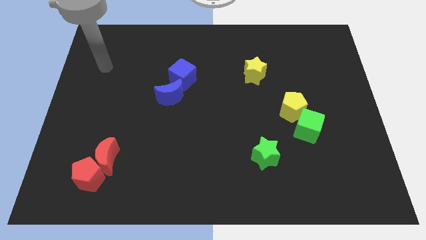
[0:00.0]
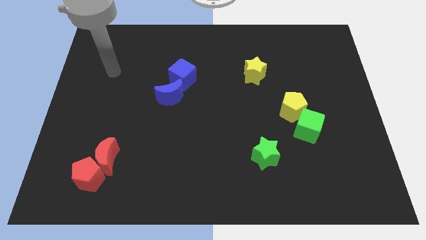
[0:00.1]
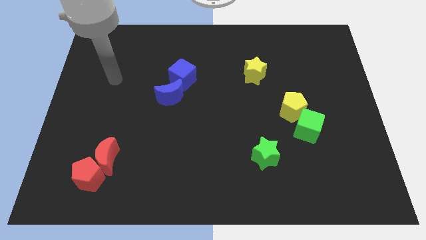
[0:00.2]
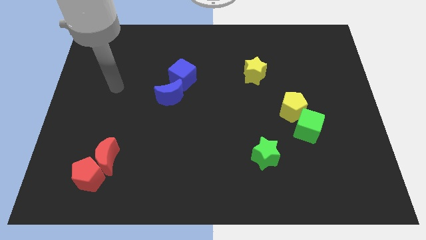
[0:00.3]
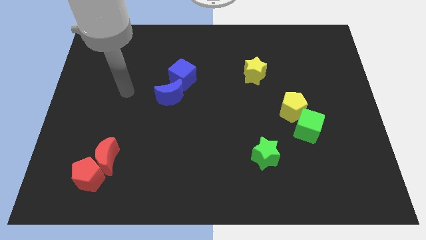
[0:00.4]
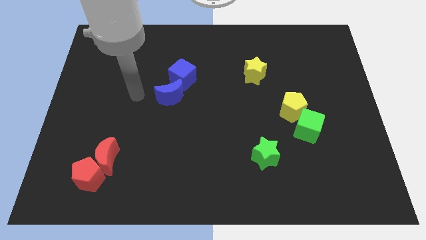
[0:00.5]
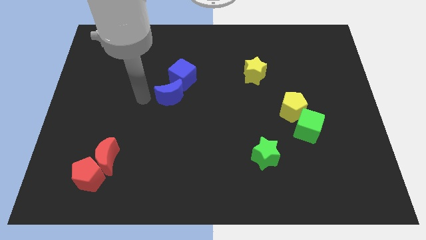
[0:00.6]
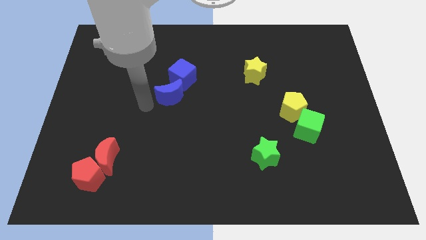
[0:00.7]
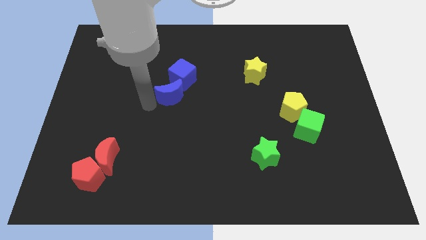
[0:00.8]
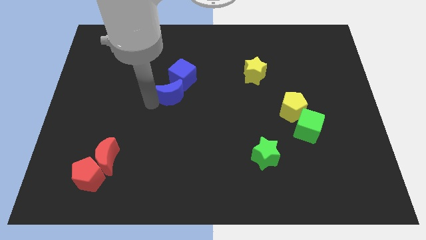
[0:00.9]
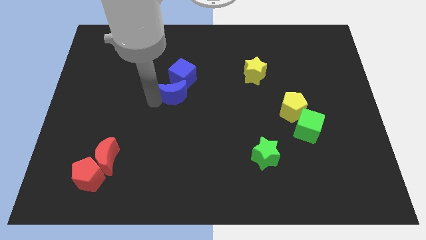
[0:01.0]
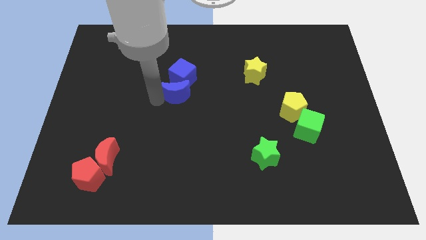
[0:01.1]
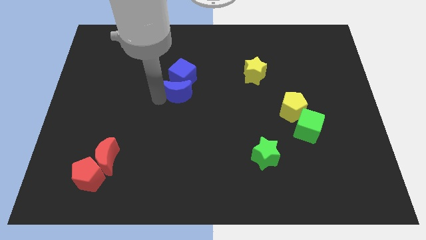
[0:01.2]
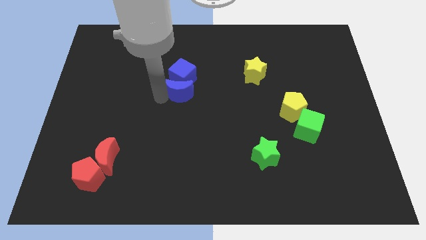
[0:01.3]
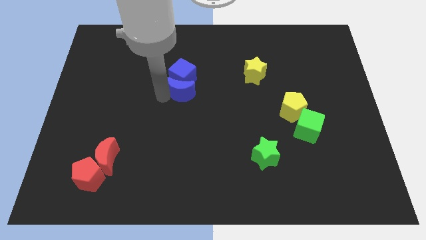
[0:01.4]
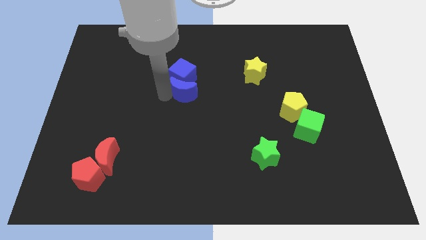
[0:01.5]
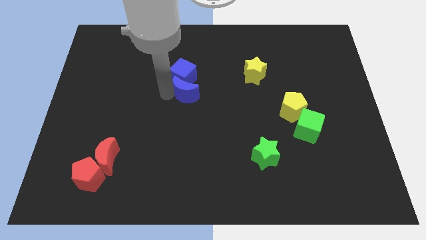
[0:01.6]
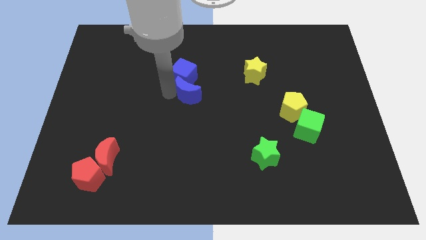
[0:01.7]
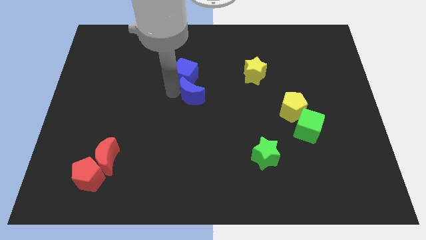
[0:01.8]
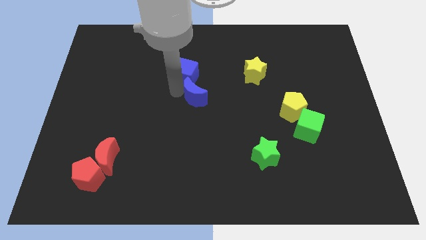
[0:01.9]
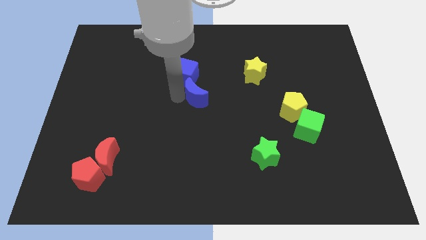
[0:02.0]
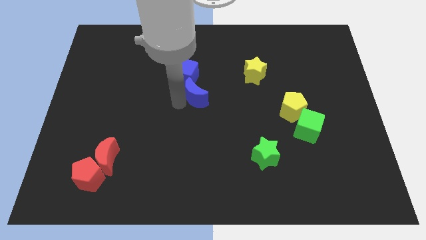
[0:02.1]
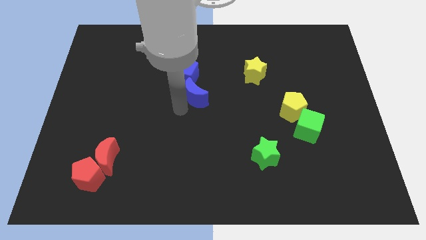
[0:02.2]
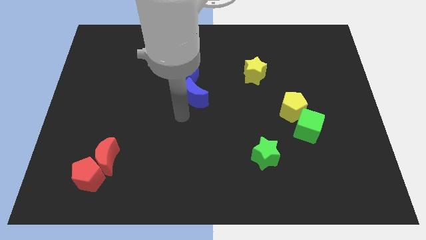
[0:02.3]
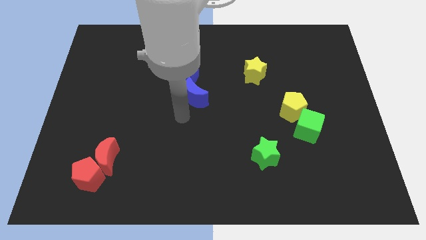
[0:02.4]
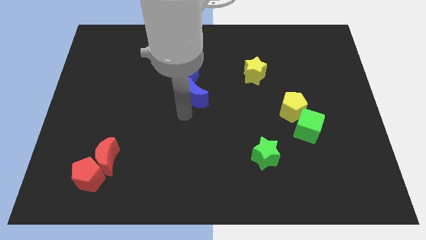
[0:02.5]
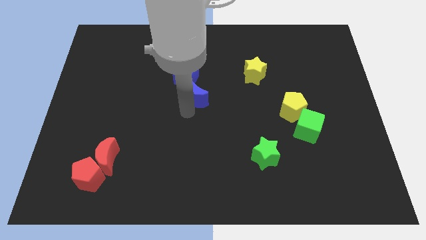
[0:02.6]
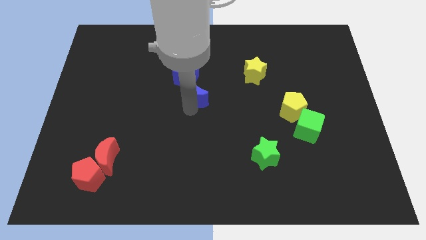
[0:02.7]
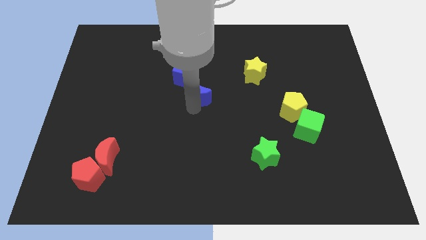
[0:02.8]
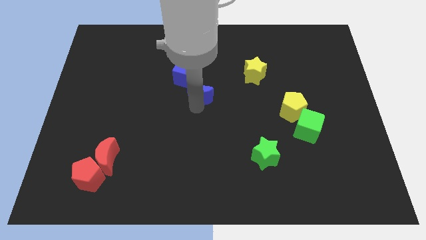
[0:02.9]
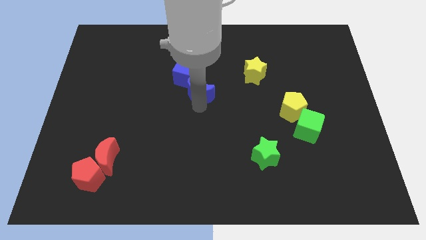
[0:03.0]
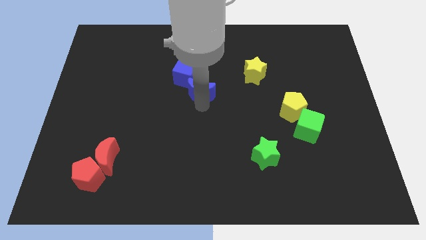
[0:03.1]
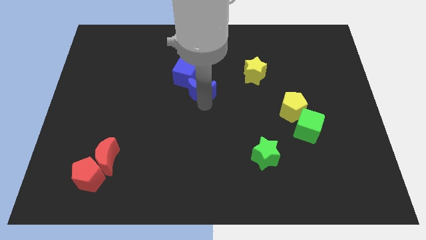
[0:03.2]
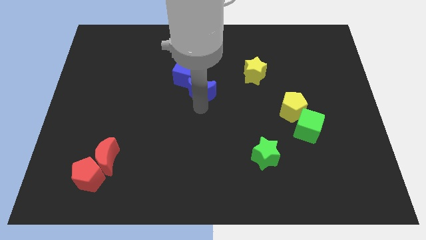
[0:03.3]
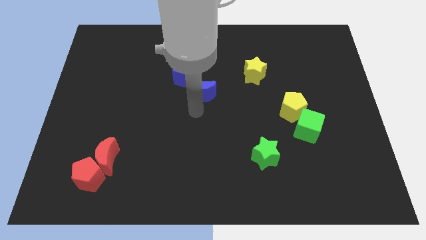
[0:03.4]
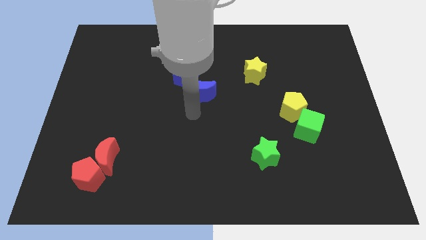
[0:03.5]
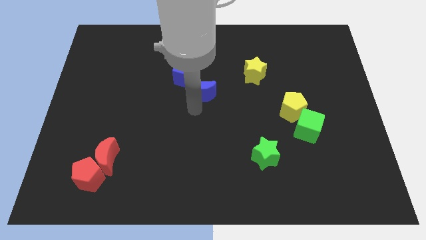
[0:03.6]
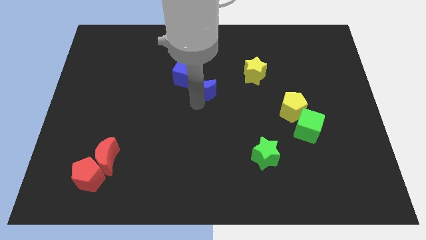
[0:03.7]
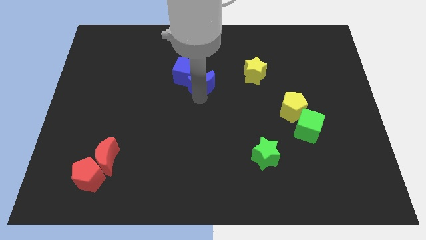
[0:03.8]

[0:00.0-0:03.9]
slightly move the blue moon upwards and to the right

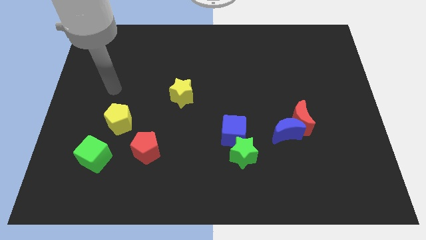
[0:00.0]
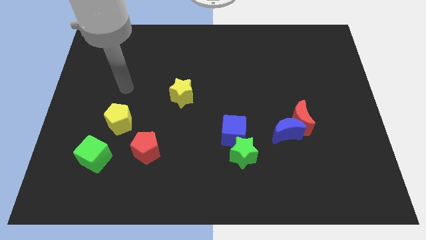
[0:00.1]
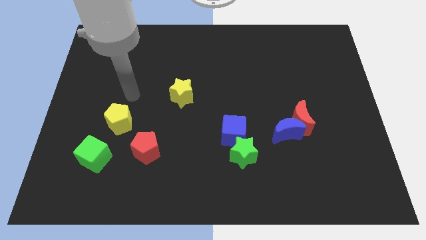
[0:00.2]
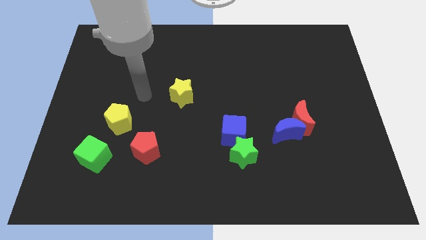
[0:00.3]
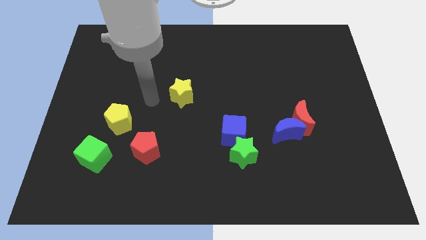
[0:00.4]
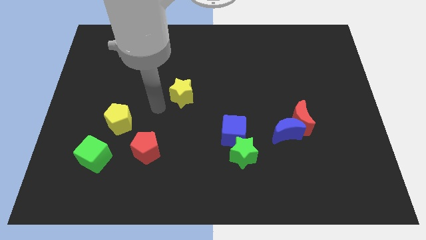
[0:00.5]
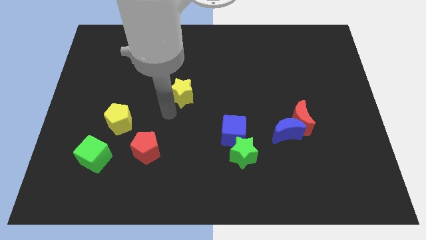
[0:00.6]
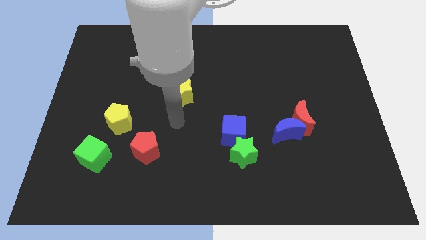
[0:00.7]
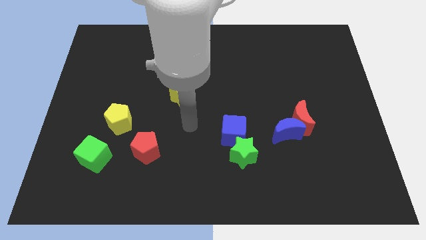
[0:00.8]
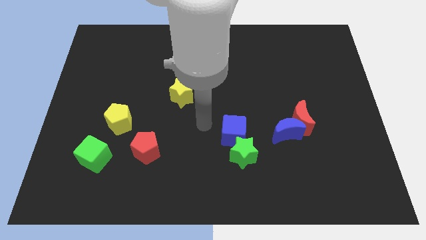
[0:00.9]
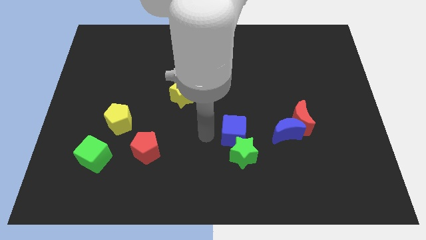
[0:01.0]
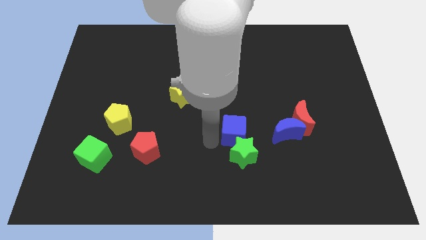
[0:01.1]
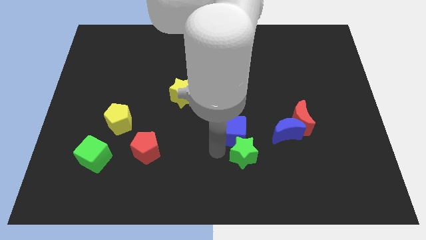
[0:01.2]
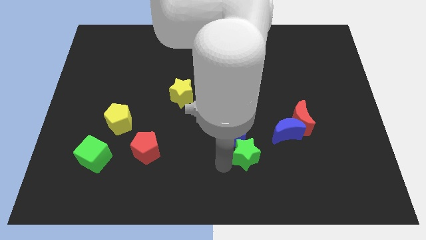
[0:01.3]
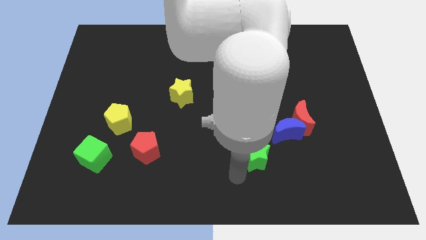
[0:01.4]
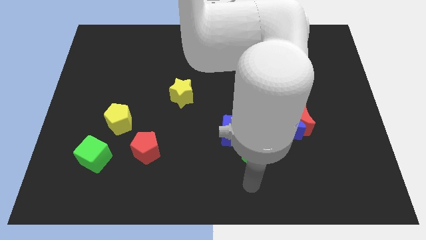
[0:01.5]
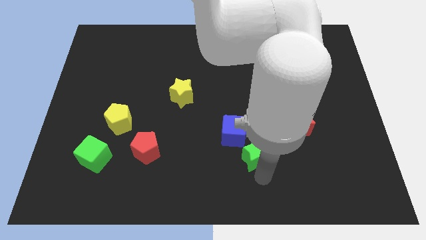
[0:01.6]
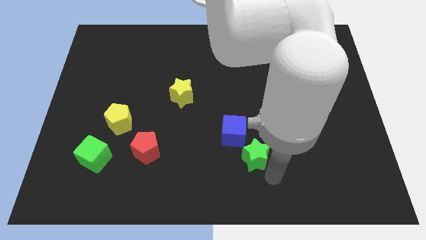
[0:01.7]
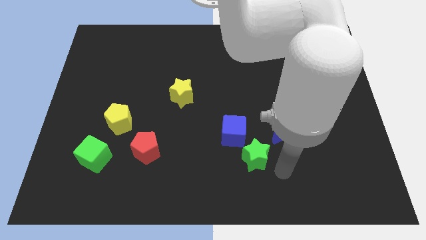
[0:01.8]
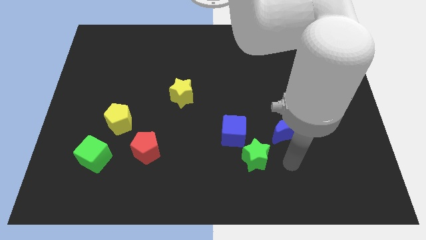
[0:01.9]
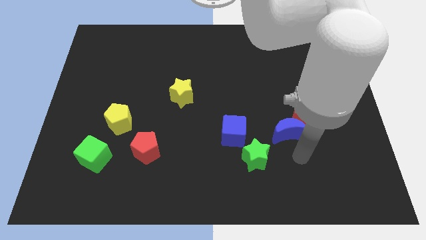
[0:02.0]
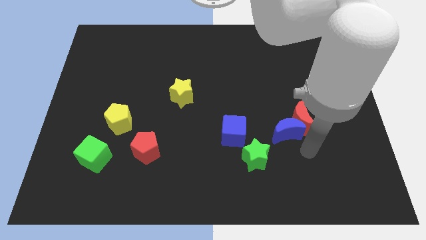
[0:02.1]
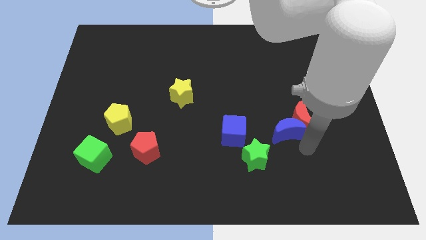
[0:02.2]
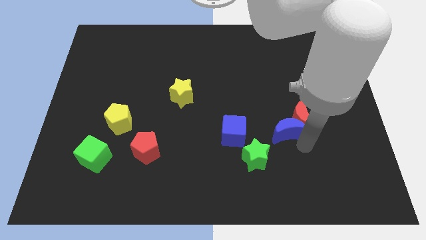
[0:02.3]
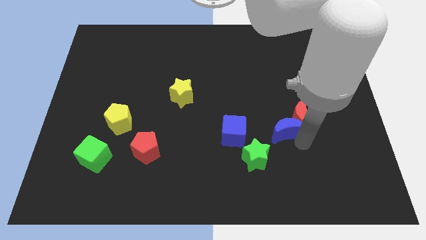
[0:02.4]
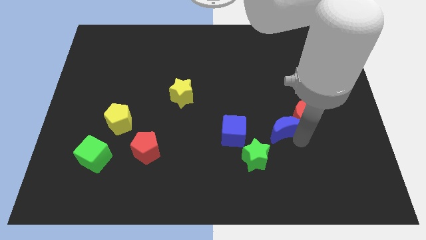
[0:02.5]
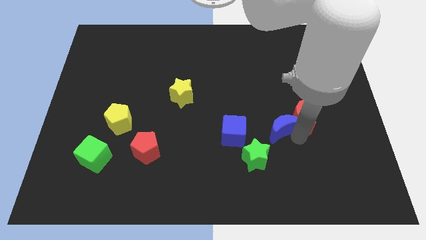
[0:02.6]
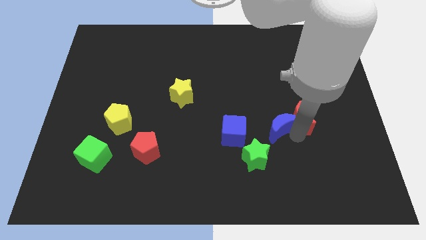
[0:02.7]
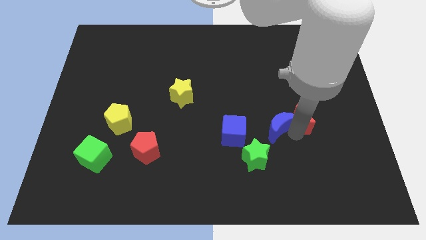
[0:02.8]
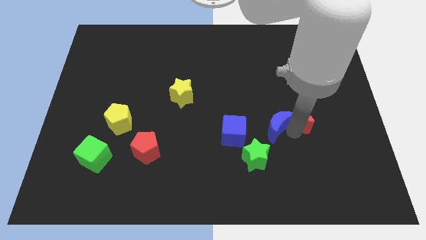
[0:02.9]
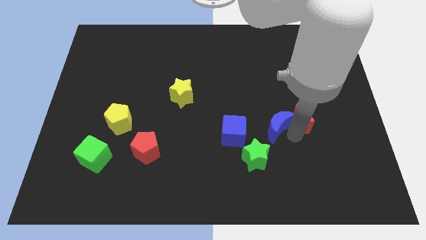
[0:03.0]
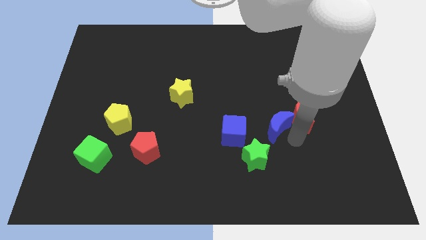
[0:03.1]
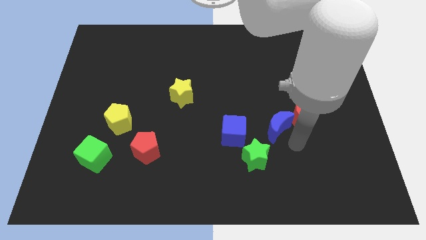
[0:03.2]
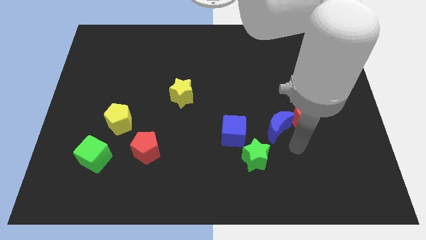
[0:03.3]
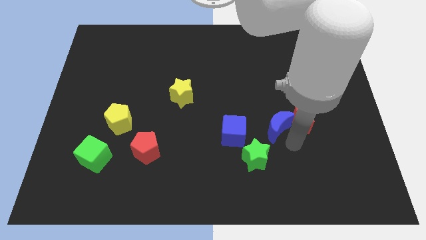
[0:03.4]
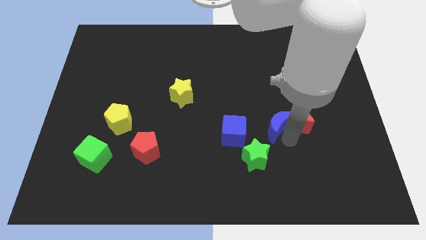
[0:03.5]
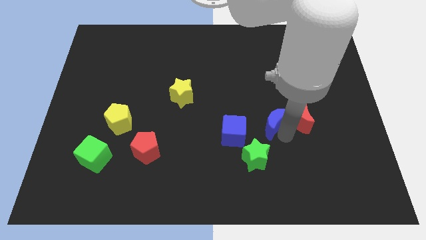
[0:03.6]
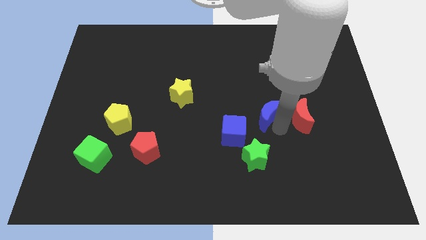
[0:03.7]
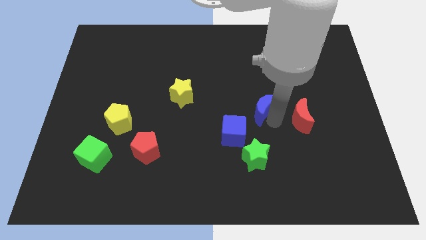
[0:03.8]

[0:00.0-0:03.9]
slightly slide the blue moon up and left
